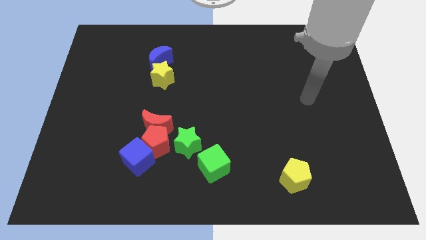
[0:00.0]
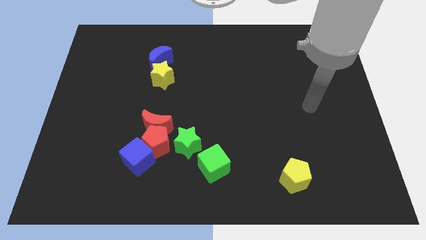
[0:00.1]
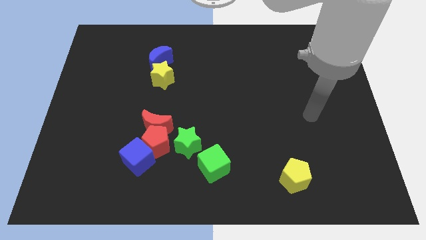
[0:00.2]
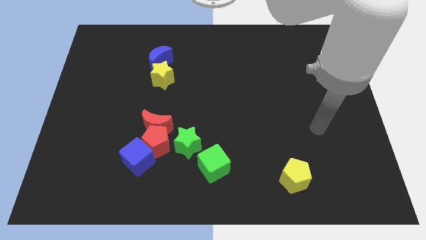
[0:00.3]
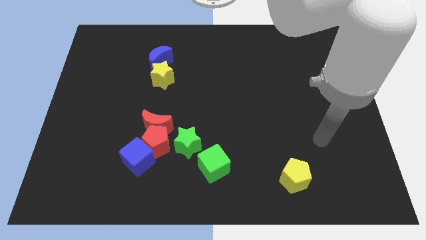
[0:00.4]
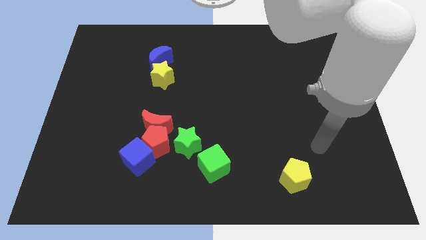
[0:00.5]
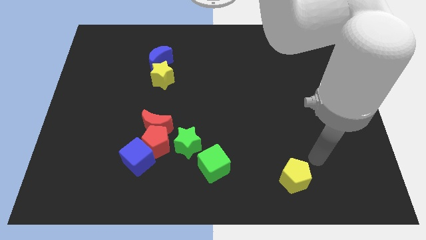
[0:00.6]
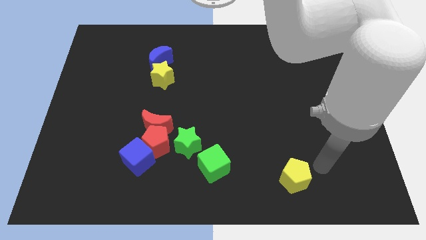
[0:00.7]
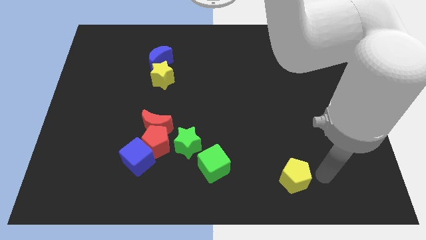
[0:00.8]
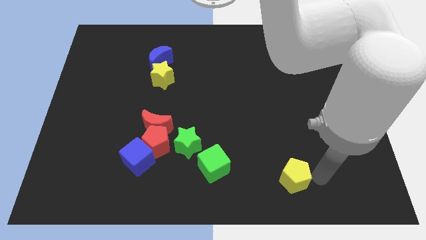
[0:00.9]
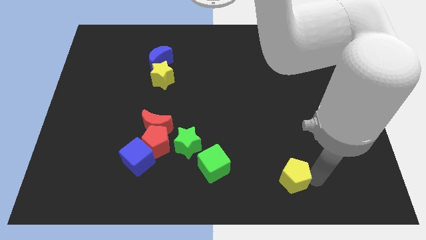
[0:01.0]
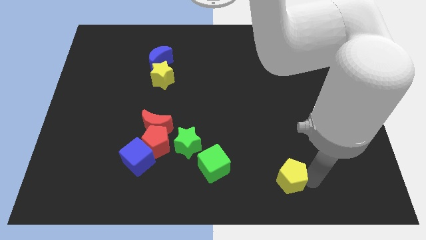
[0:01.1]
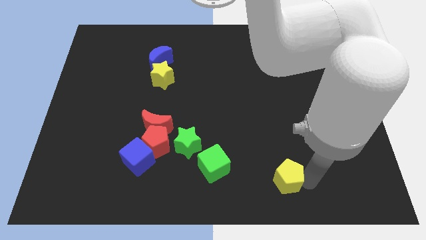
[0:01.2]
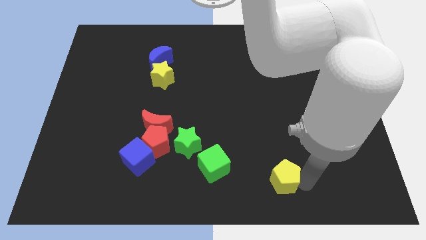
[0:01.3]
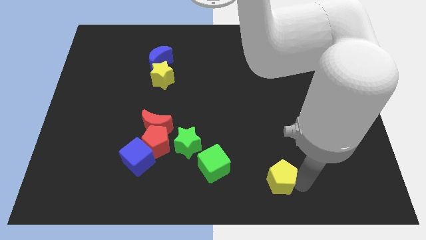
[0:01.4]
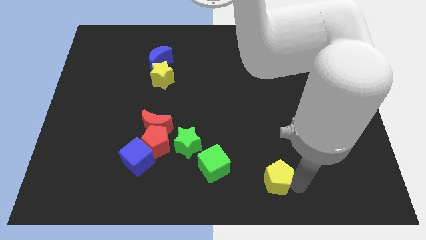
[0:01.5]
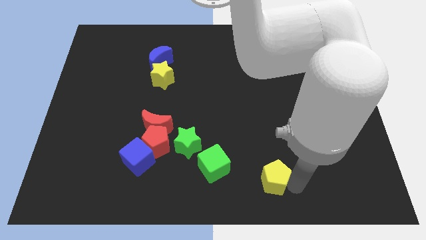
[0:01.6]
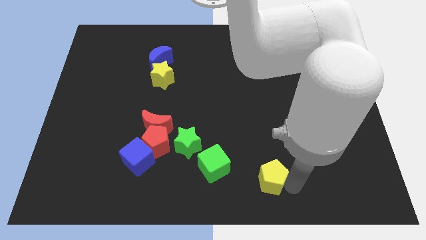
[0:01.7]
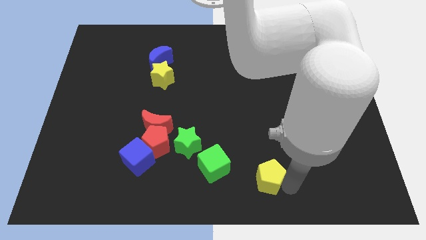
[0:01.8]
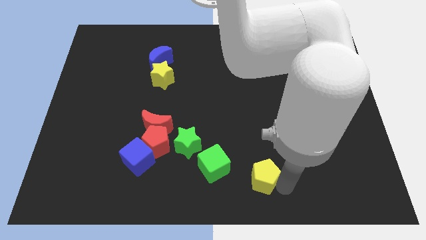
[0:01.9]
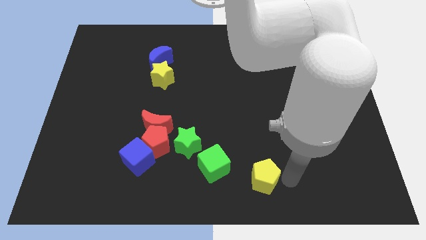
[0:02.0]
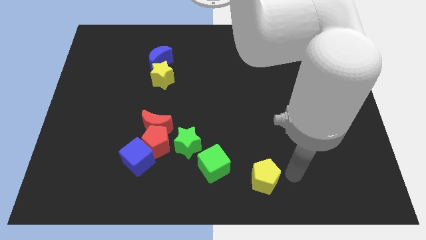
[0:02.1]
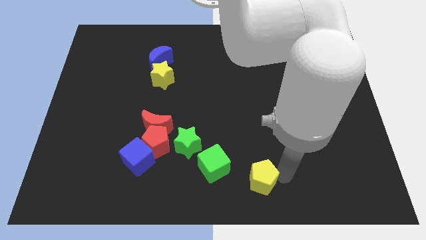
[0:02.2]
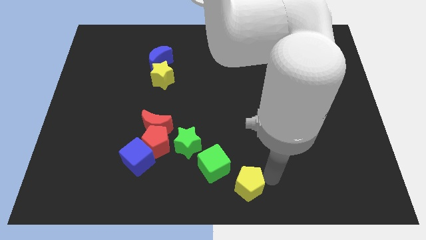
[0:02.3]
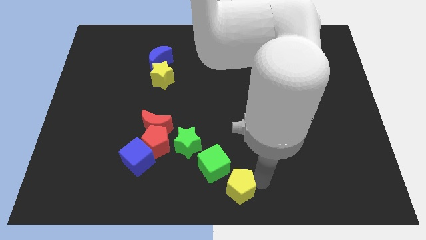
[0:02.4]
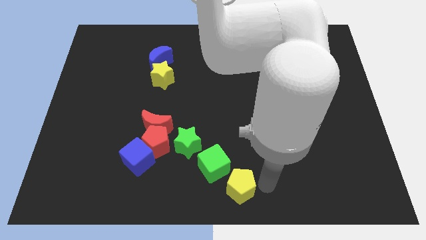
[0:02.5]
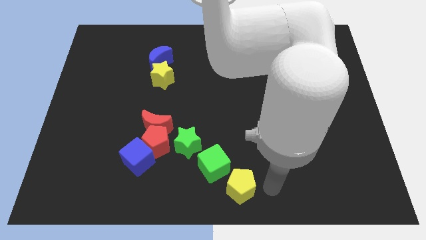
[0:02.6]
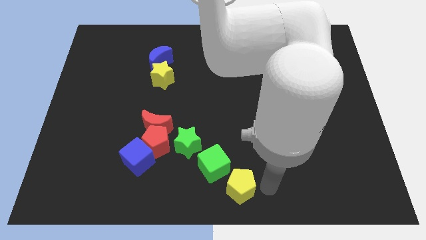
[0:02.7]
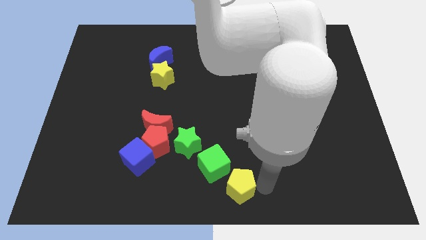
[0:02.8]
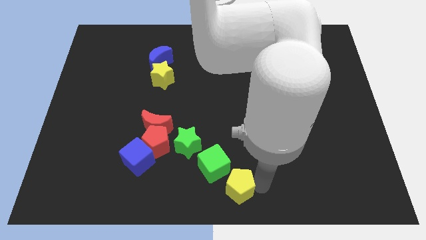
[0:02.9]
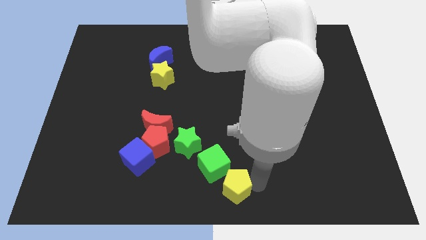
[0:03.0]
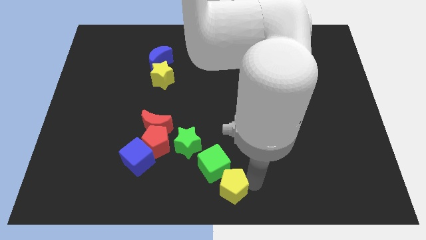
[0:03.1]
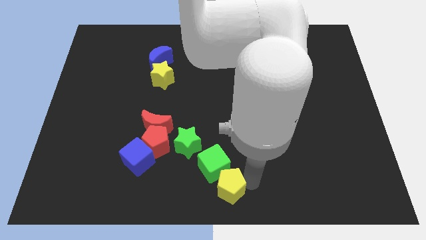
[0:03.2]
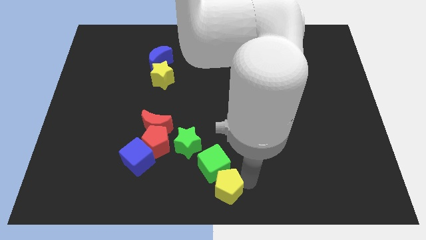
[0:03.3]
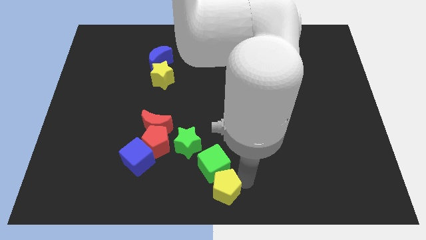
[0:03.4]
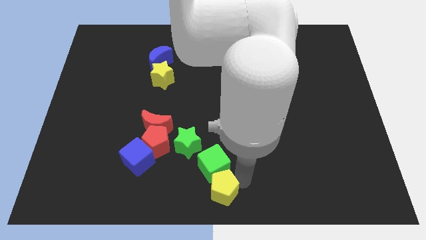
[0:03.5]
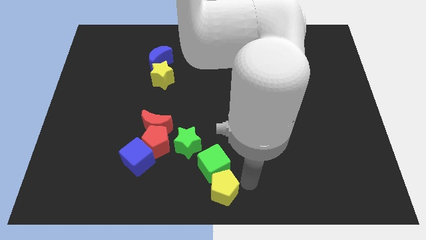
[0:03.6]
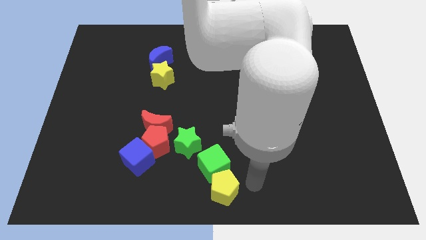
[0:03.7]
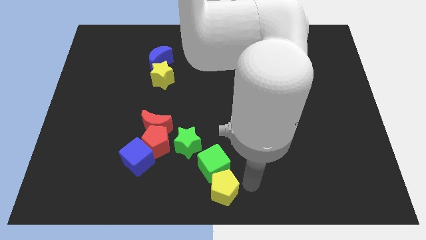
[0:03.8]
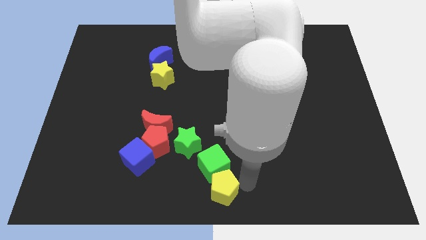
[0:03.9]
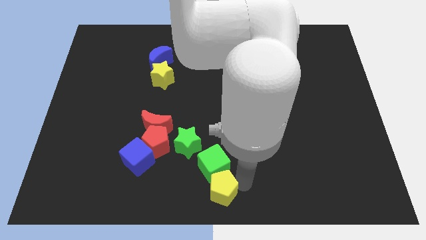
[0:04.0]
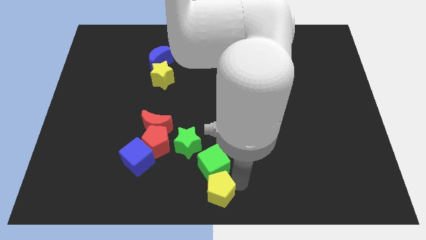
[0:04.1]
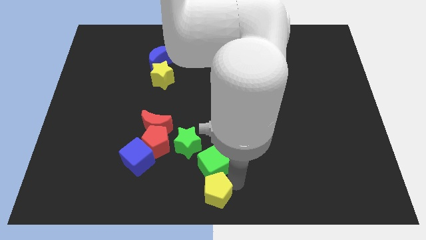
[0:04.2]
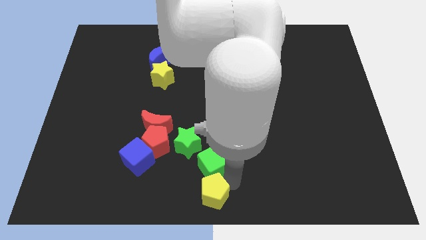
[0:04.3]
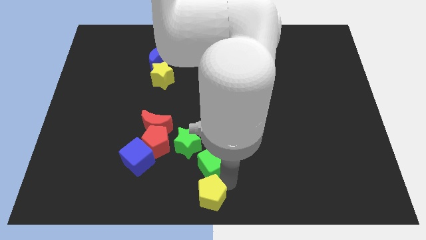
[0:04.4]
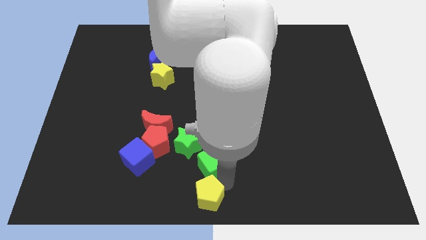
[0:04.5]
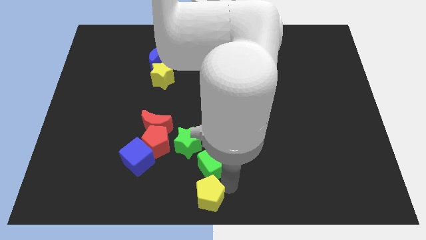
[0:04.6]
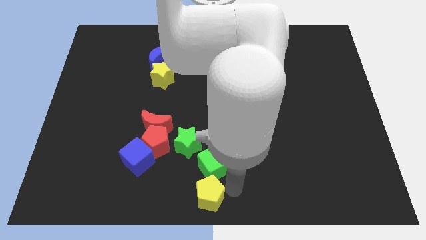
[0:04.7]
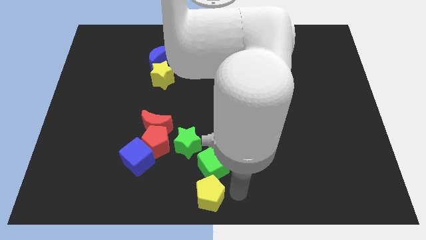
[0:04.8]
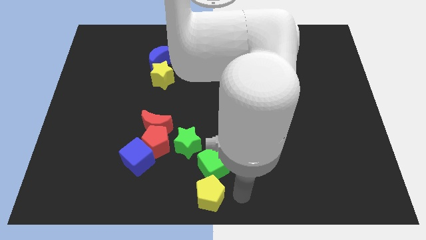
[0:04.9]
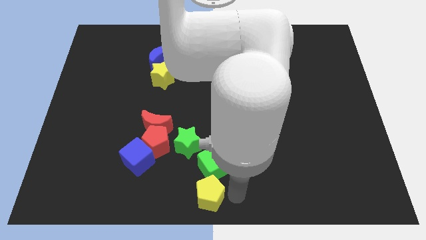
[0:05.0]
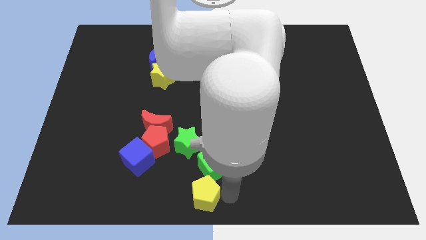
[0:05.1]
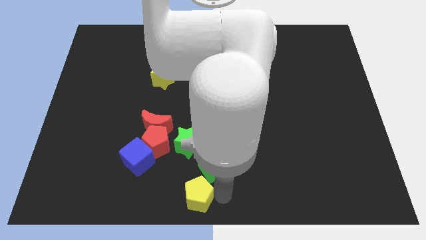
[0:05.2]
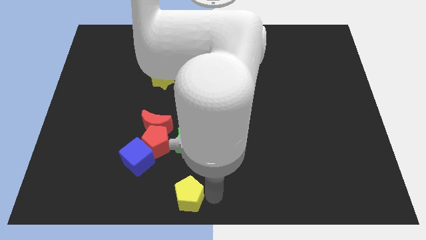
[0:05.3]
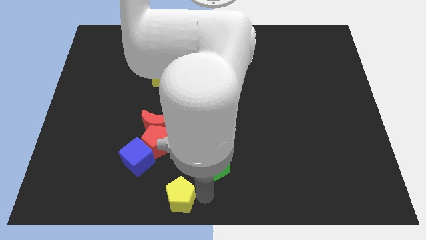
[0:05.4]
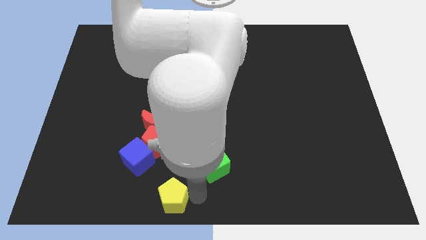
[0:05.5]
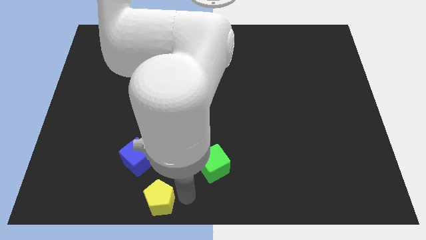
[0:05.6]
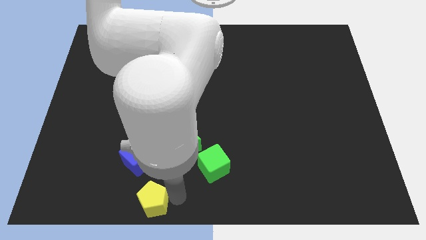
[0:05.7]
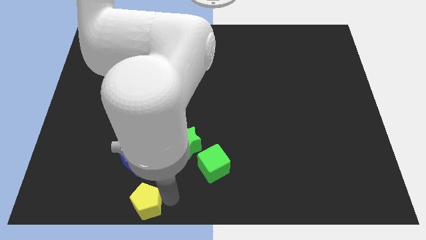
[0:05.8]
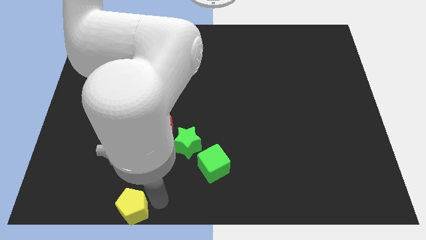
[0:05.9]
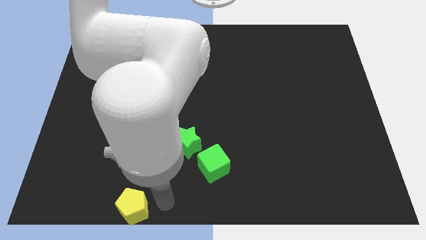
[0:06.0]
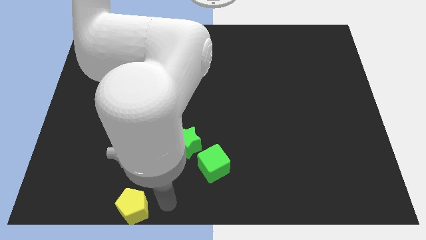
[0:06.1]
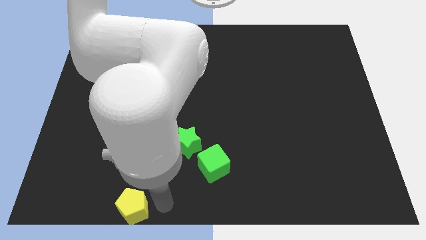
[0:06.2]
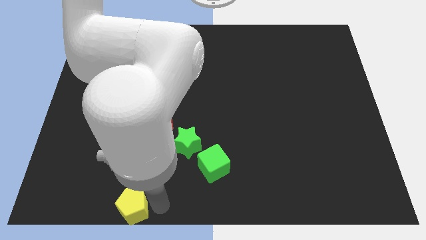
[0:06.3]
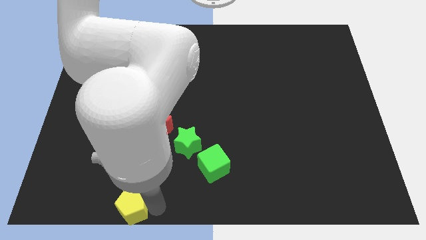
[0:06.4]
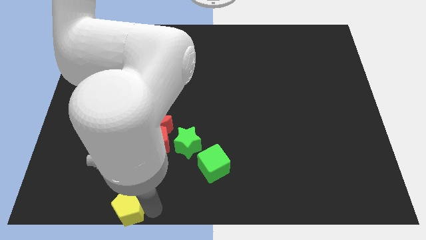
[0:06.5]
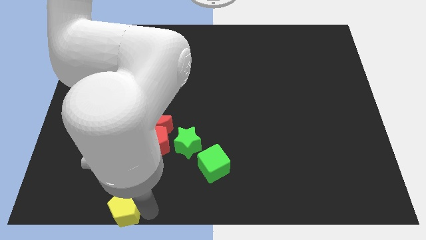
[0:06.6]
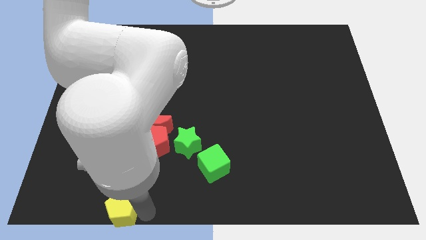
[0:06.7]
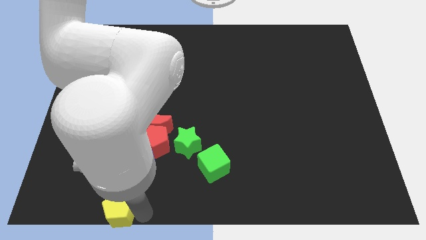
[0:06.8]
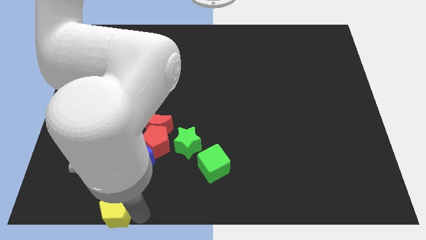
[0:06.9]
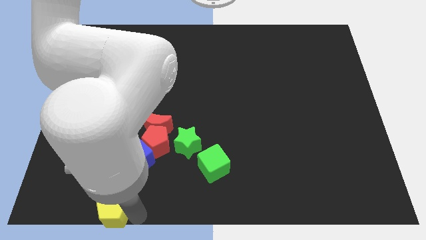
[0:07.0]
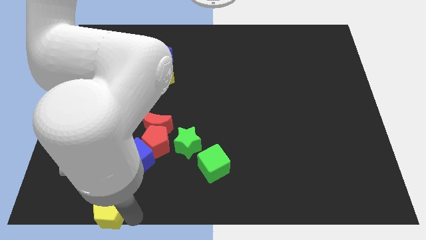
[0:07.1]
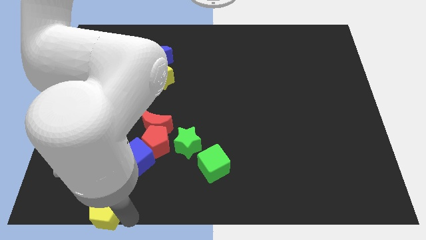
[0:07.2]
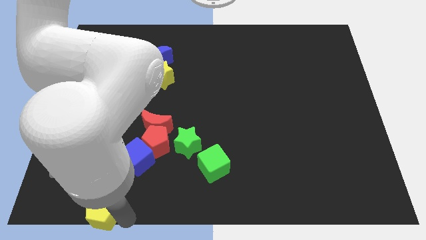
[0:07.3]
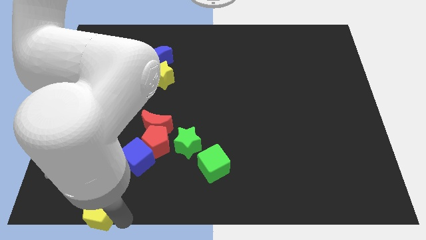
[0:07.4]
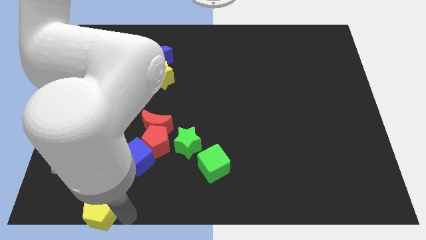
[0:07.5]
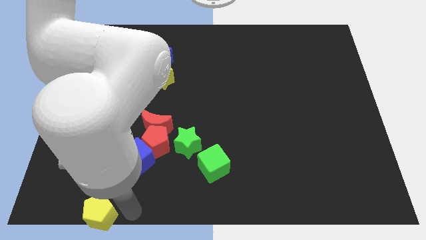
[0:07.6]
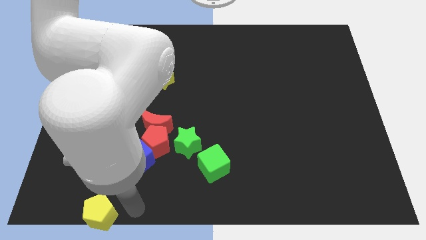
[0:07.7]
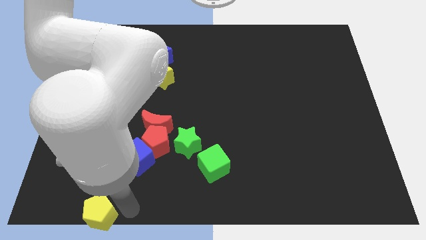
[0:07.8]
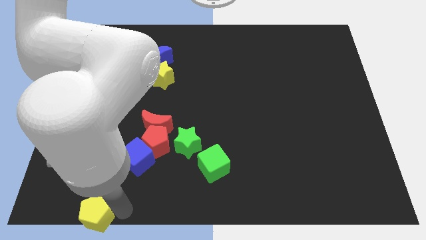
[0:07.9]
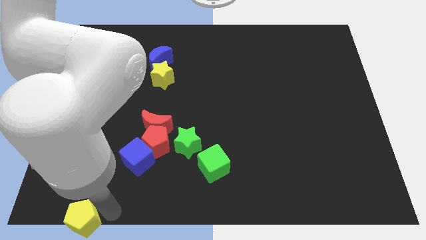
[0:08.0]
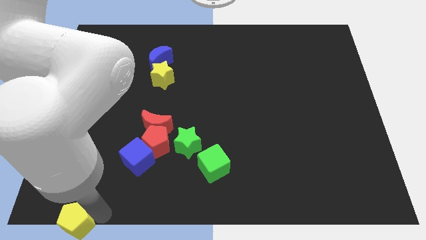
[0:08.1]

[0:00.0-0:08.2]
put the yellow pentagon to the lower left corner
